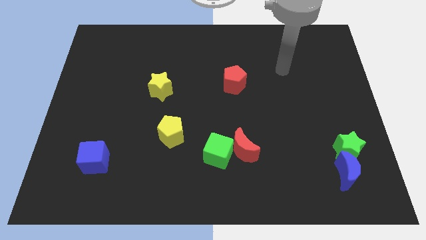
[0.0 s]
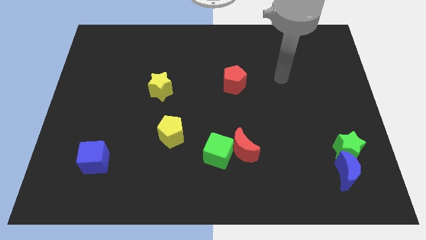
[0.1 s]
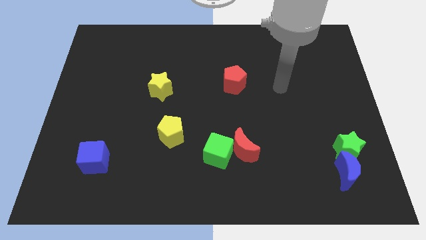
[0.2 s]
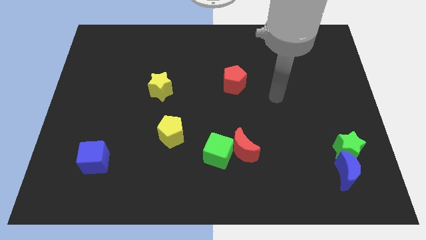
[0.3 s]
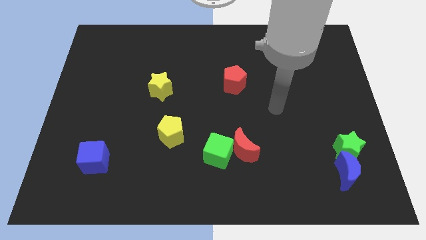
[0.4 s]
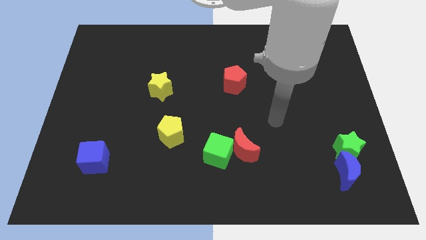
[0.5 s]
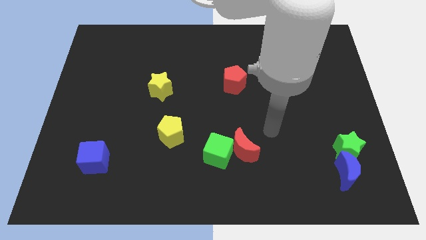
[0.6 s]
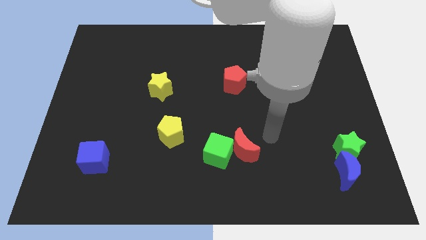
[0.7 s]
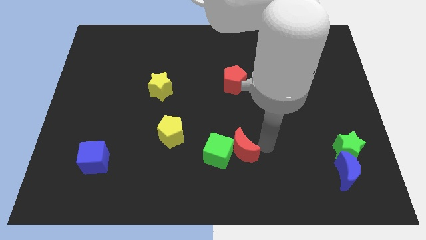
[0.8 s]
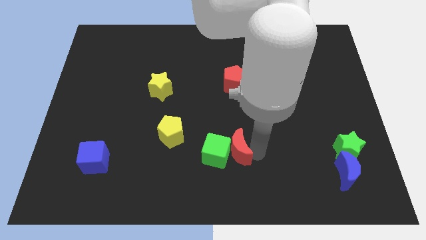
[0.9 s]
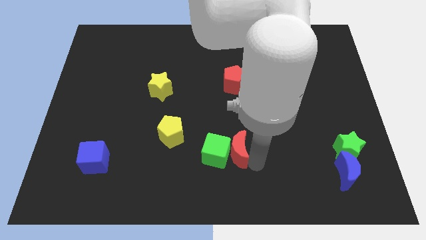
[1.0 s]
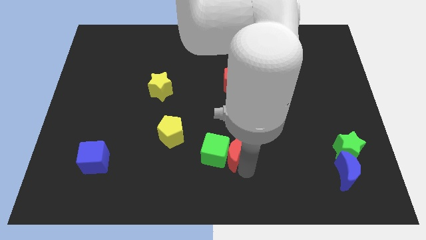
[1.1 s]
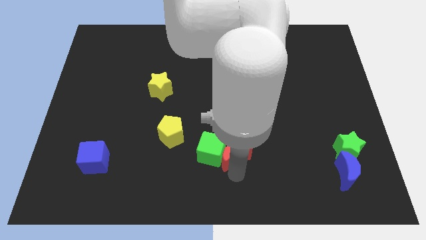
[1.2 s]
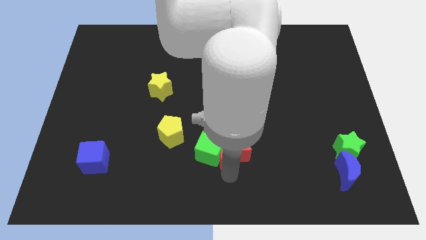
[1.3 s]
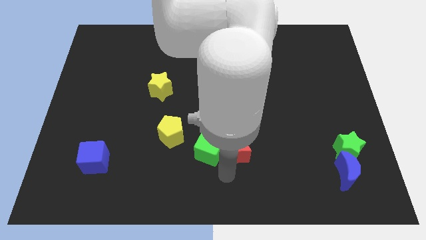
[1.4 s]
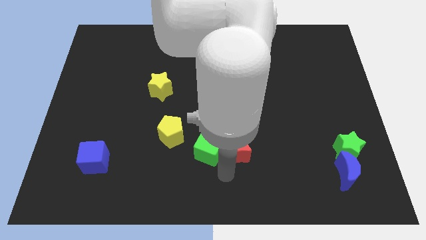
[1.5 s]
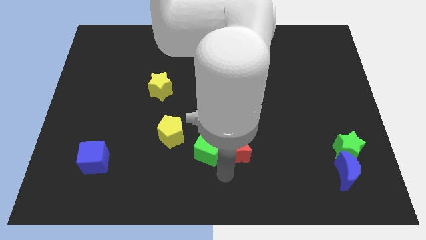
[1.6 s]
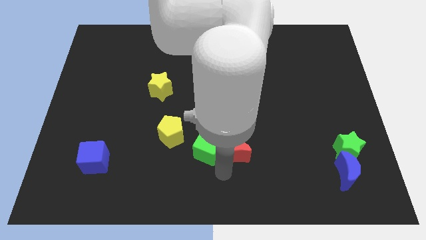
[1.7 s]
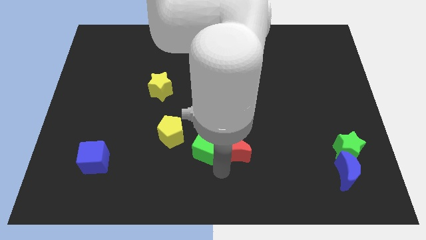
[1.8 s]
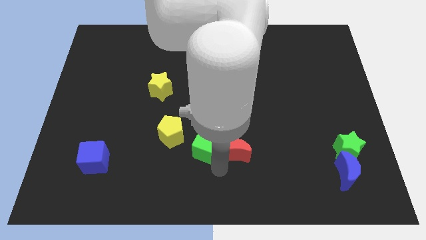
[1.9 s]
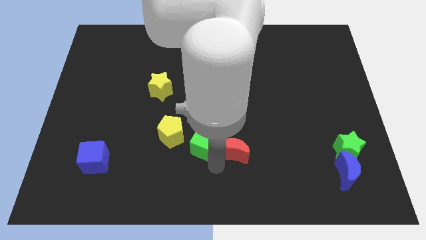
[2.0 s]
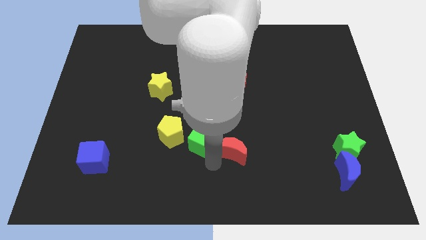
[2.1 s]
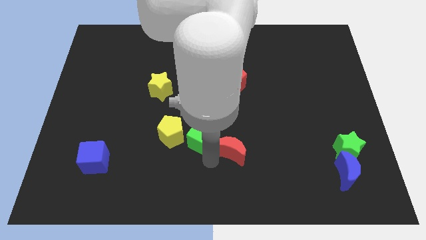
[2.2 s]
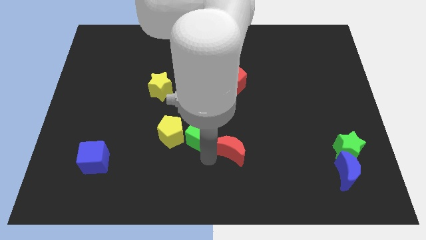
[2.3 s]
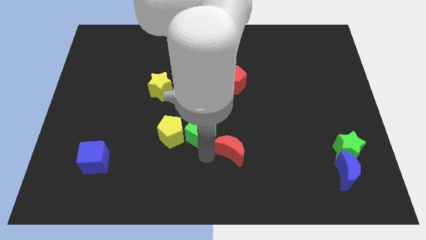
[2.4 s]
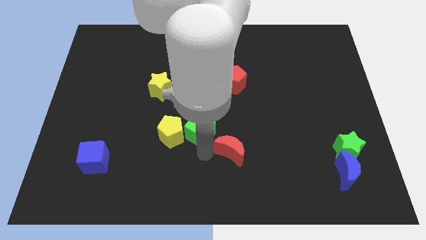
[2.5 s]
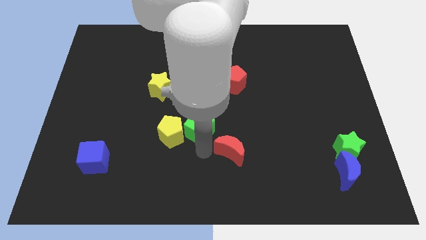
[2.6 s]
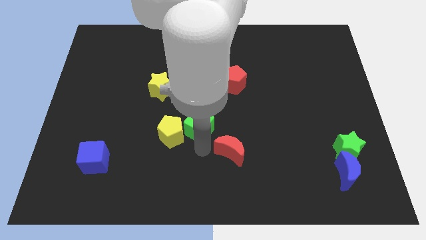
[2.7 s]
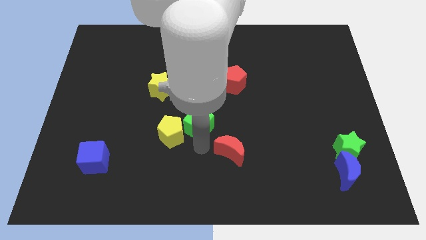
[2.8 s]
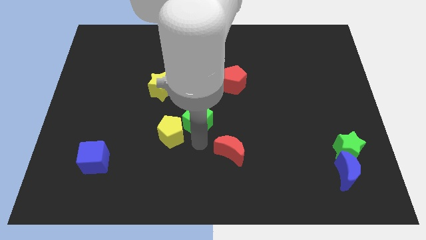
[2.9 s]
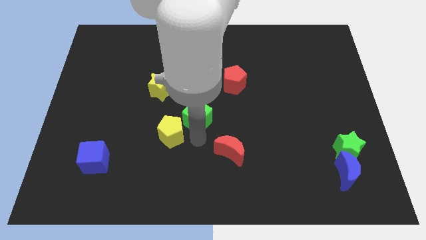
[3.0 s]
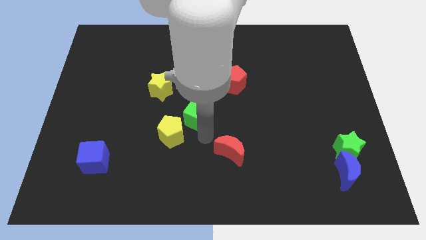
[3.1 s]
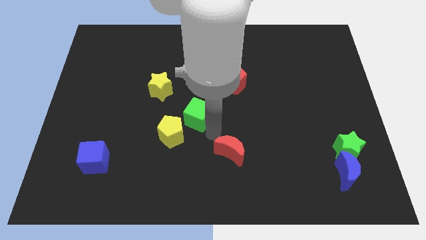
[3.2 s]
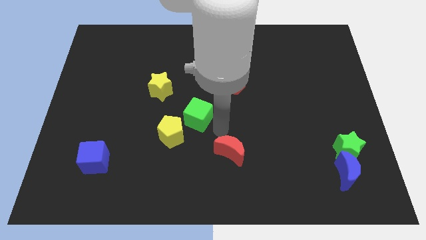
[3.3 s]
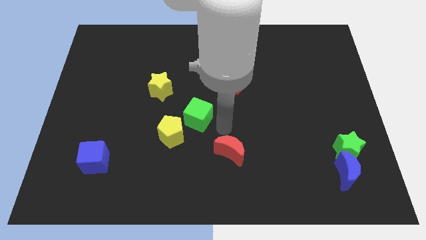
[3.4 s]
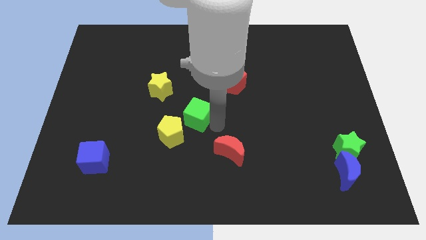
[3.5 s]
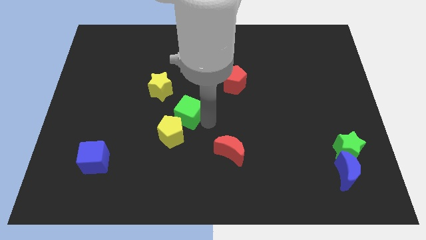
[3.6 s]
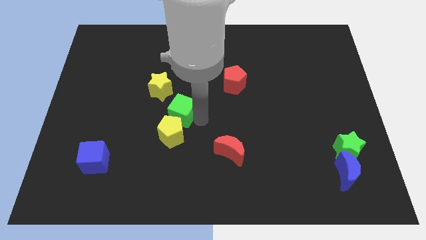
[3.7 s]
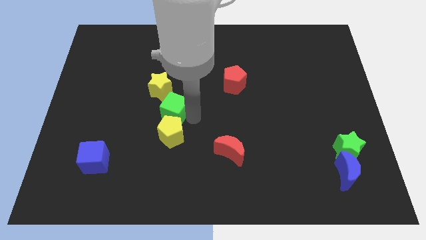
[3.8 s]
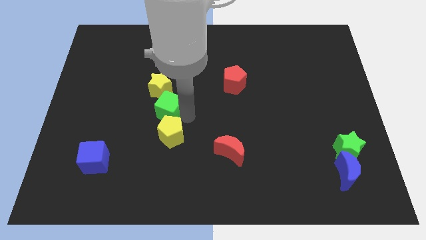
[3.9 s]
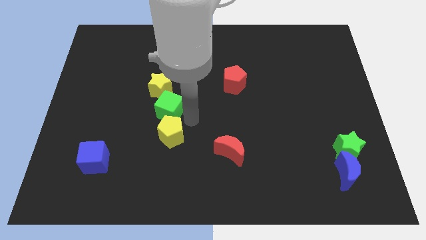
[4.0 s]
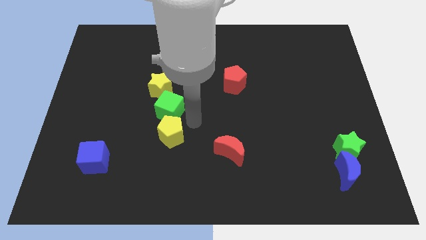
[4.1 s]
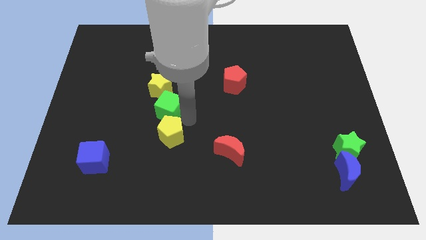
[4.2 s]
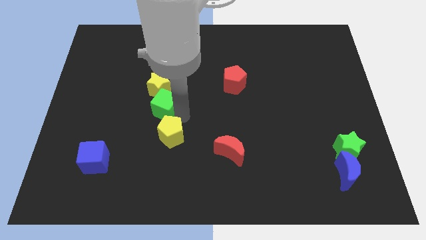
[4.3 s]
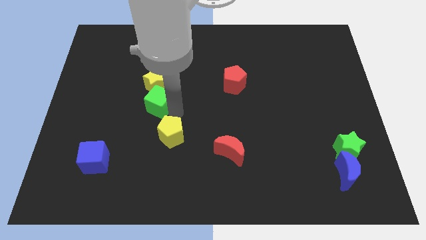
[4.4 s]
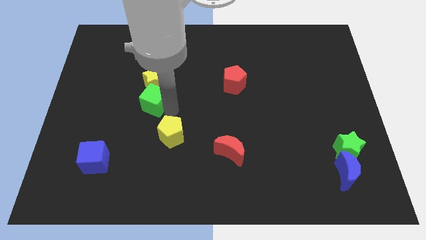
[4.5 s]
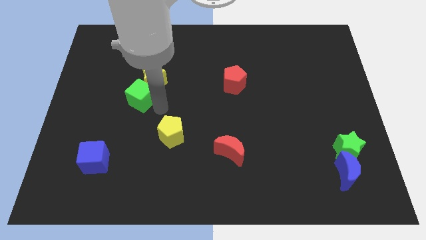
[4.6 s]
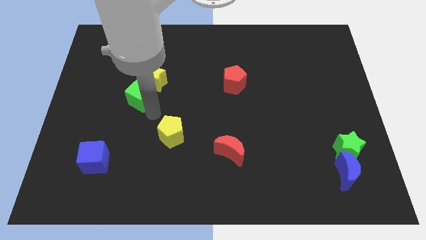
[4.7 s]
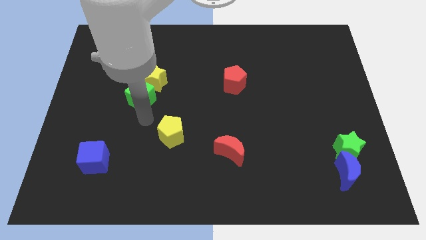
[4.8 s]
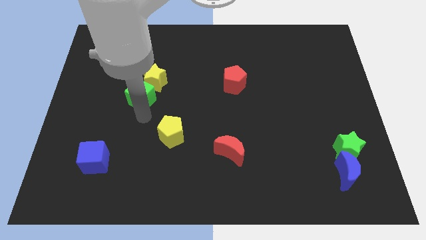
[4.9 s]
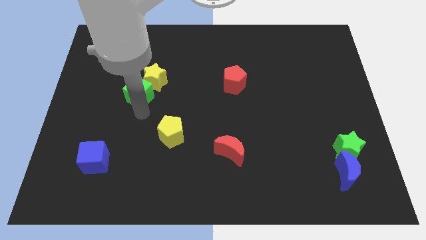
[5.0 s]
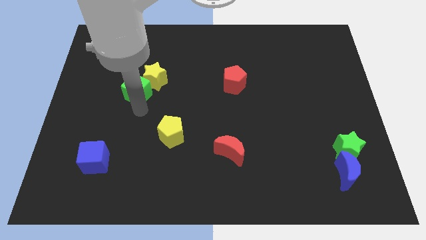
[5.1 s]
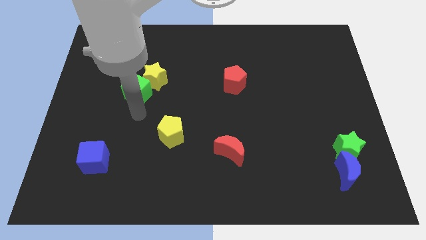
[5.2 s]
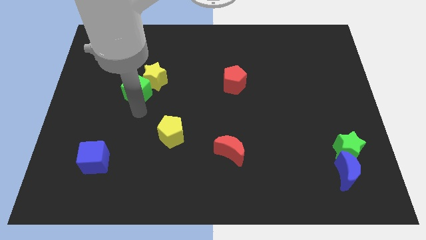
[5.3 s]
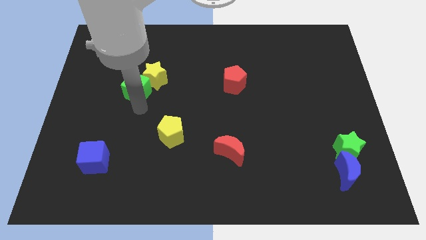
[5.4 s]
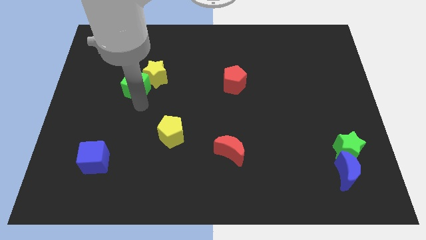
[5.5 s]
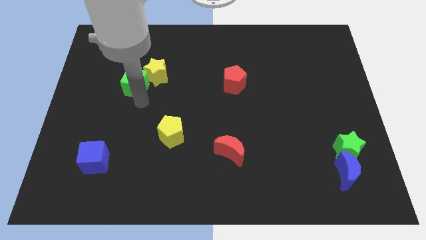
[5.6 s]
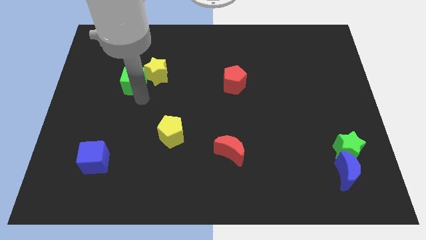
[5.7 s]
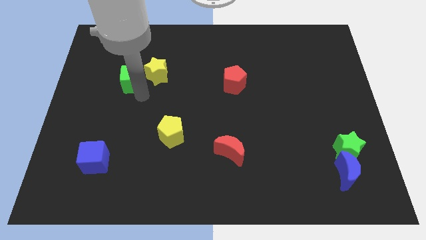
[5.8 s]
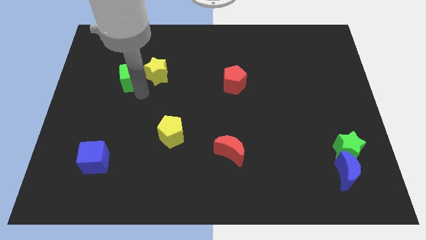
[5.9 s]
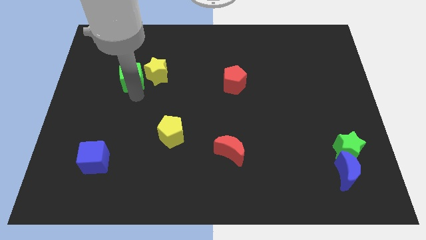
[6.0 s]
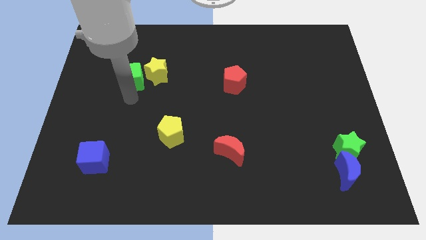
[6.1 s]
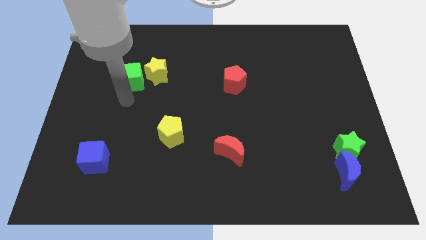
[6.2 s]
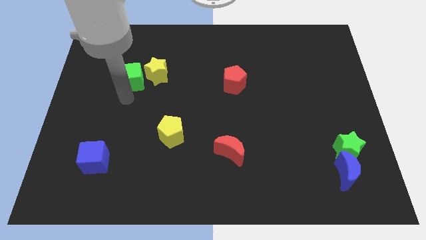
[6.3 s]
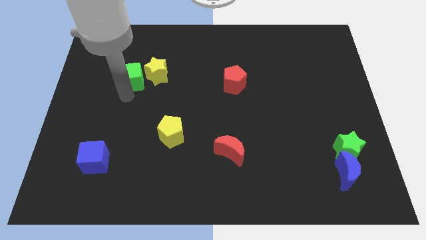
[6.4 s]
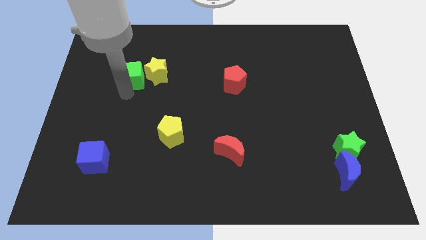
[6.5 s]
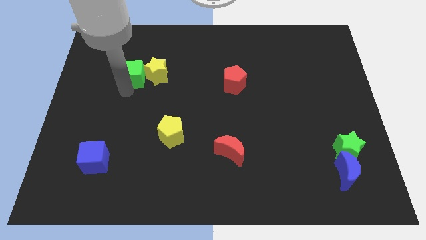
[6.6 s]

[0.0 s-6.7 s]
push the green cube diagonally up and to the left of the yellow star
